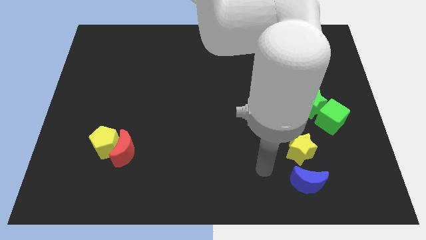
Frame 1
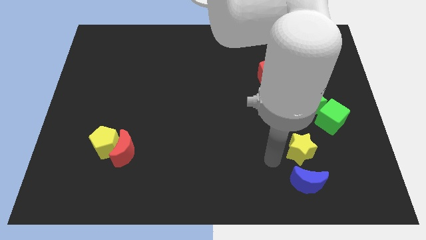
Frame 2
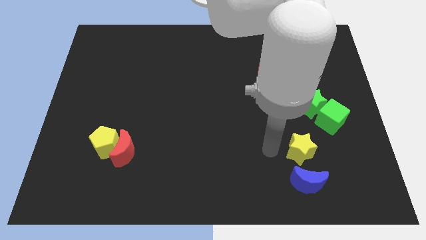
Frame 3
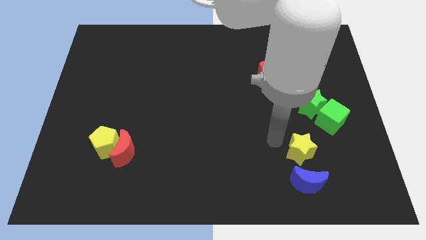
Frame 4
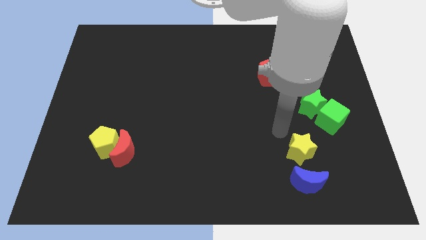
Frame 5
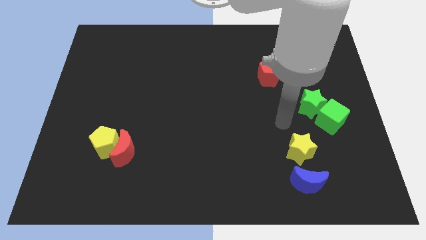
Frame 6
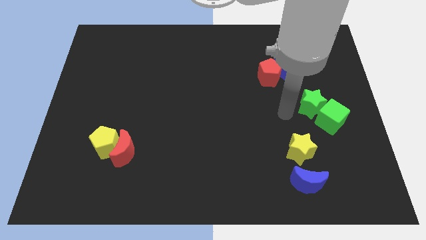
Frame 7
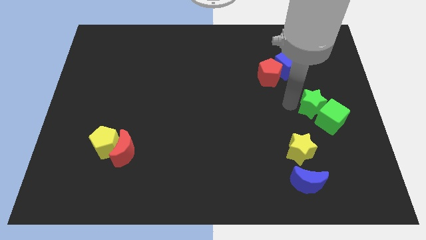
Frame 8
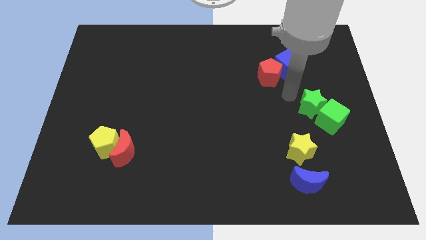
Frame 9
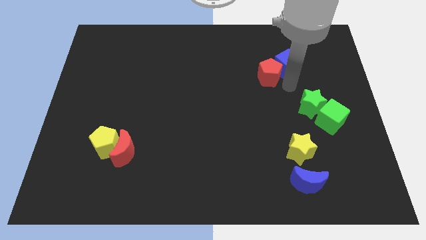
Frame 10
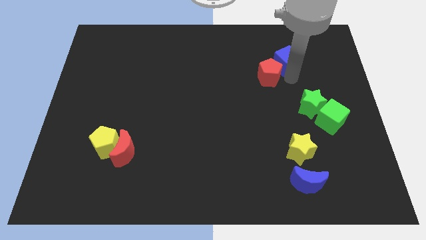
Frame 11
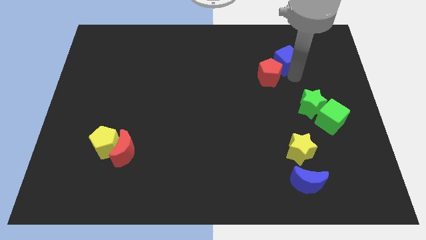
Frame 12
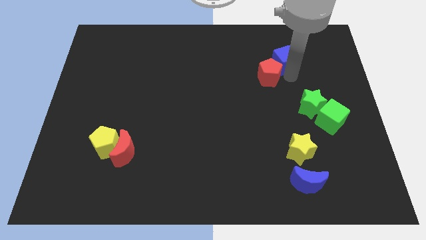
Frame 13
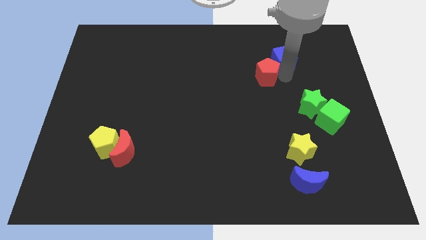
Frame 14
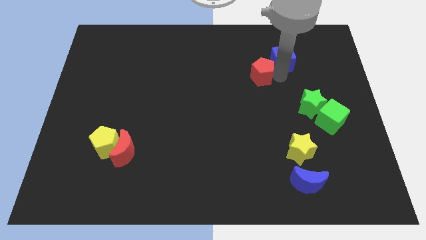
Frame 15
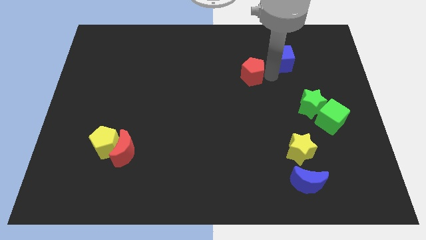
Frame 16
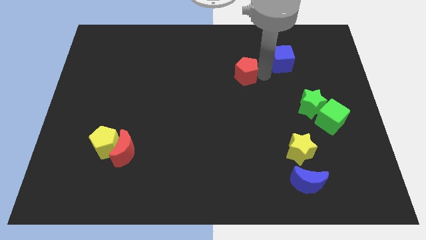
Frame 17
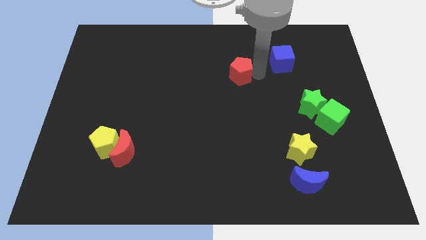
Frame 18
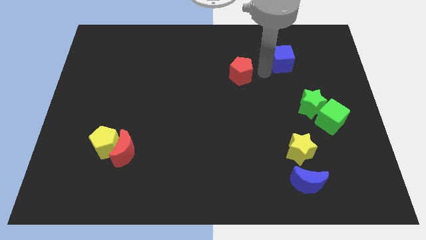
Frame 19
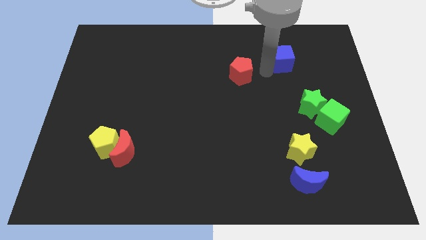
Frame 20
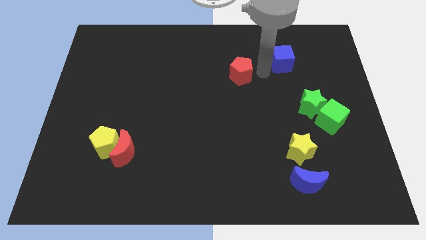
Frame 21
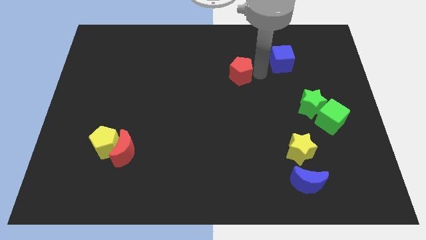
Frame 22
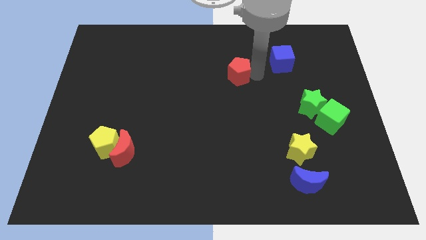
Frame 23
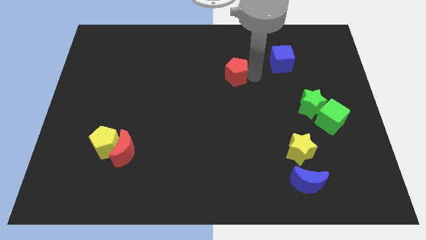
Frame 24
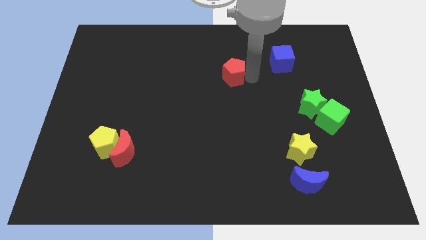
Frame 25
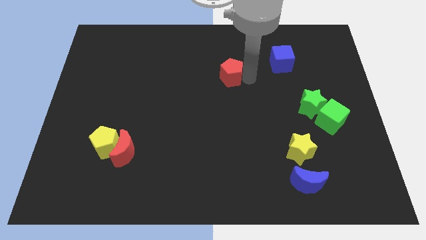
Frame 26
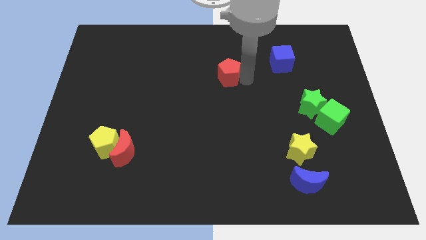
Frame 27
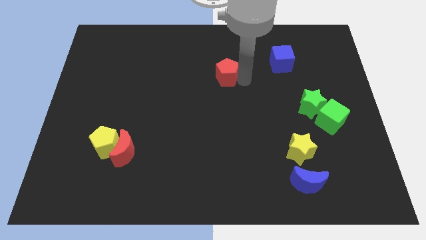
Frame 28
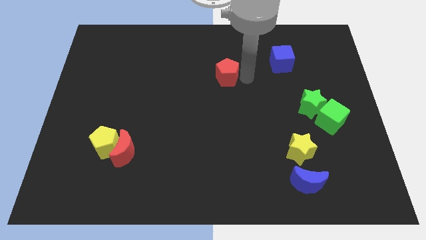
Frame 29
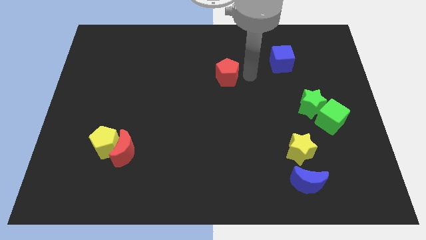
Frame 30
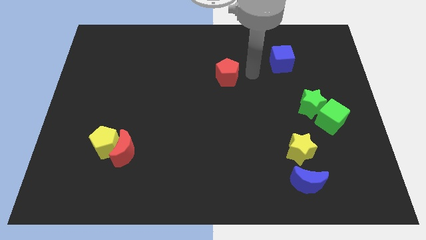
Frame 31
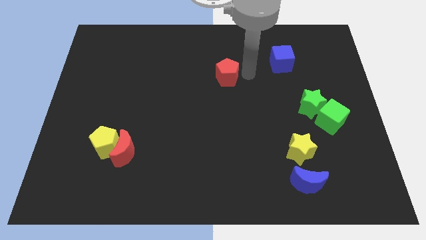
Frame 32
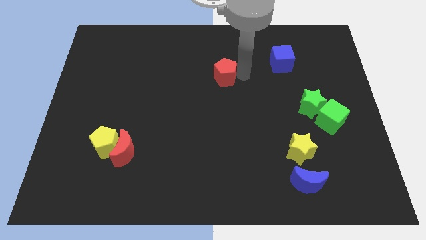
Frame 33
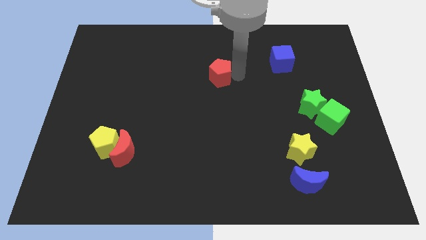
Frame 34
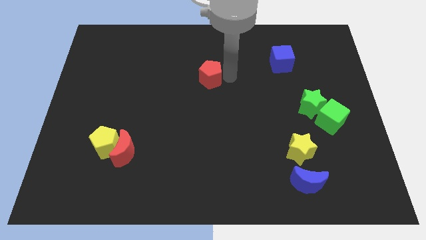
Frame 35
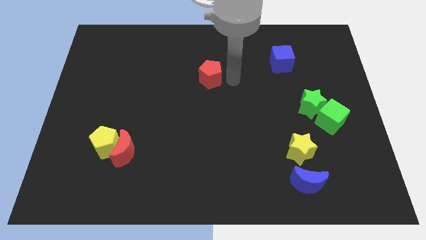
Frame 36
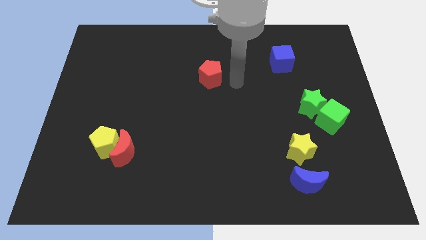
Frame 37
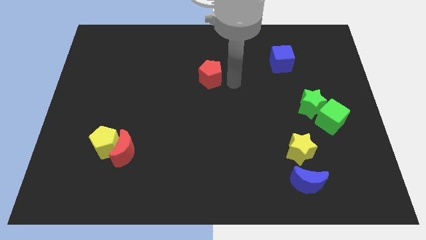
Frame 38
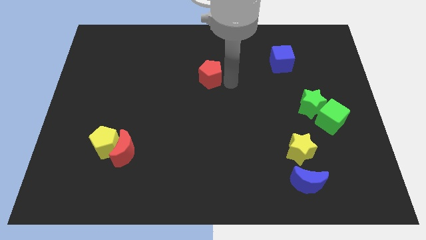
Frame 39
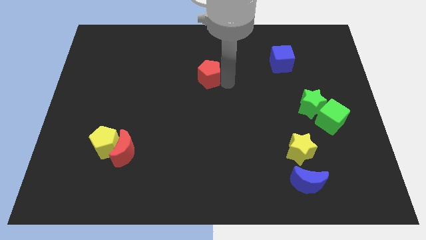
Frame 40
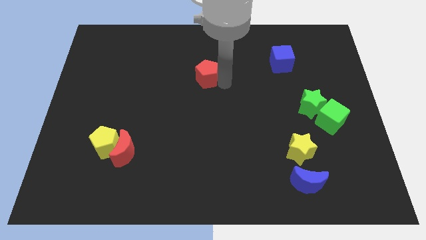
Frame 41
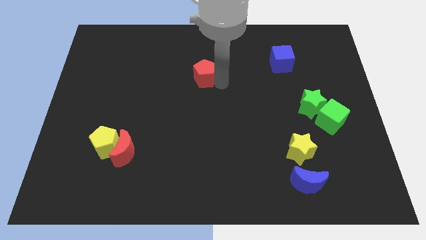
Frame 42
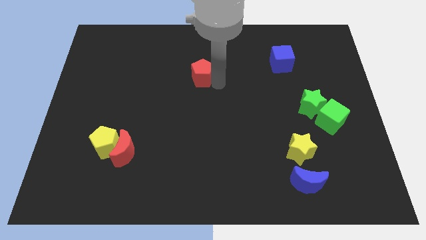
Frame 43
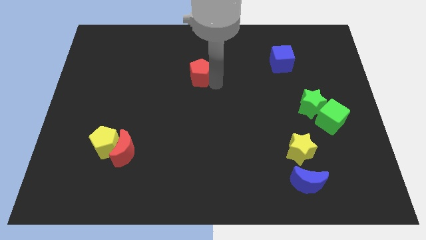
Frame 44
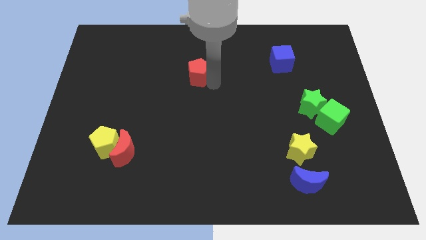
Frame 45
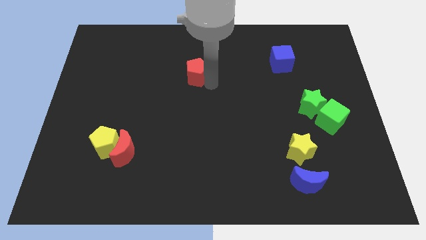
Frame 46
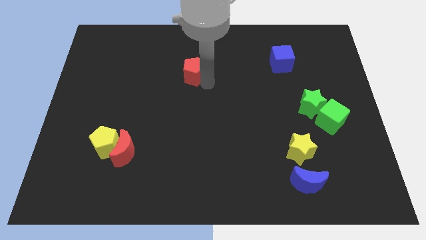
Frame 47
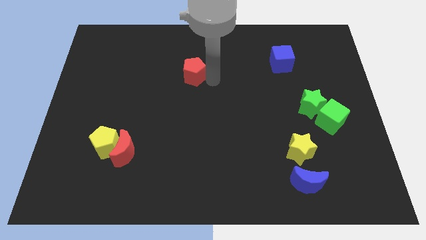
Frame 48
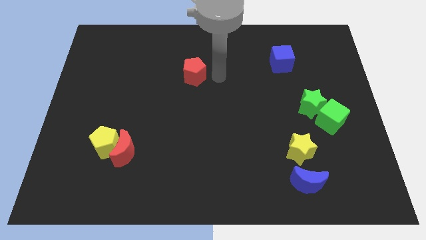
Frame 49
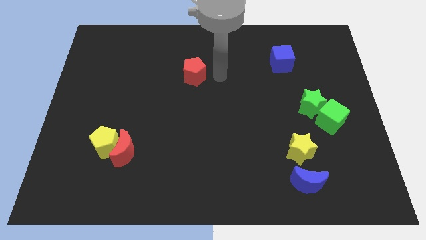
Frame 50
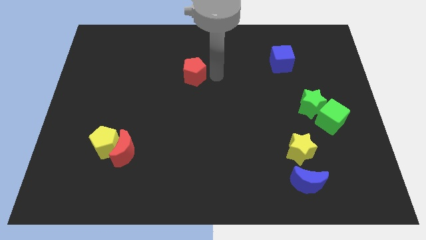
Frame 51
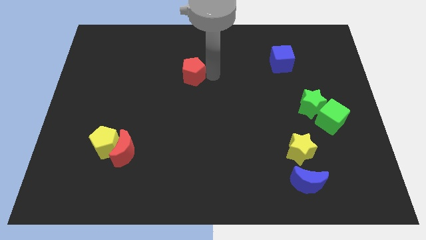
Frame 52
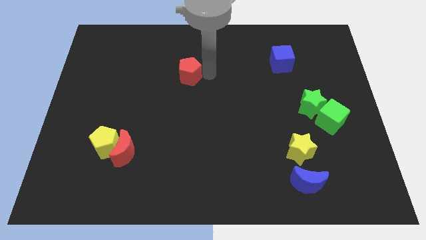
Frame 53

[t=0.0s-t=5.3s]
move the red pentagon to the left

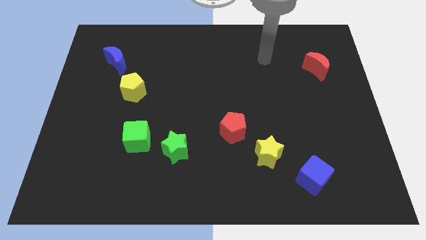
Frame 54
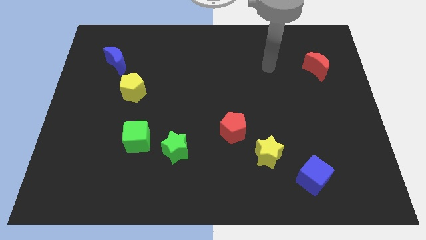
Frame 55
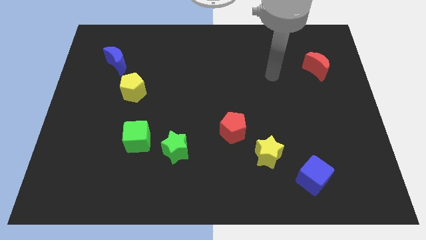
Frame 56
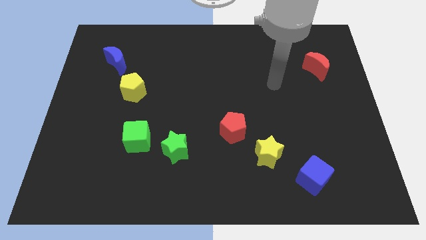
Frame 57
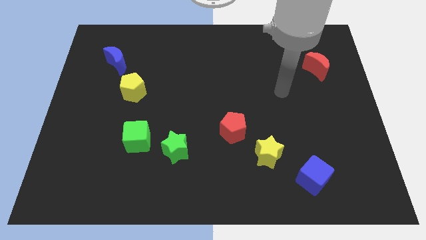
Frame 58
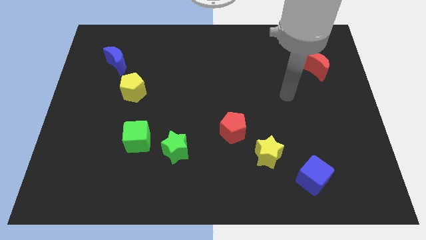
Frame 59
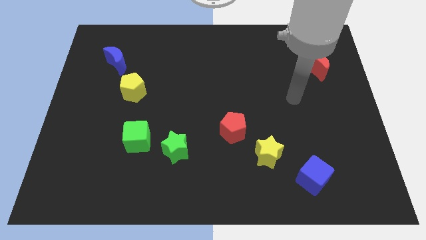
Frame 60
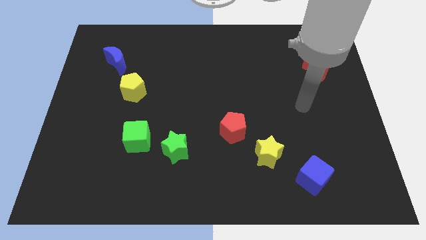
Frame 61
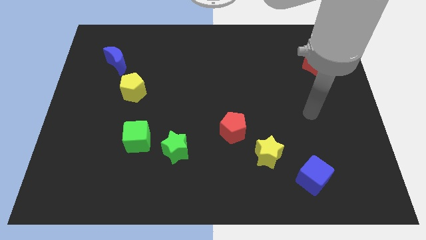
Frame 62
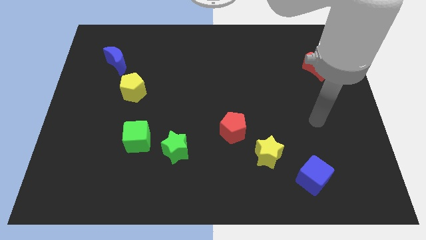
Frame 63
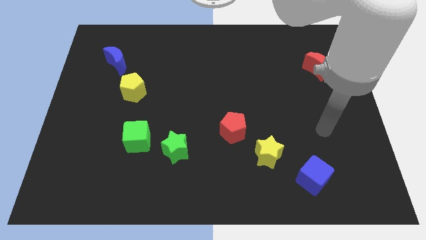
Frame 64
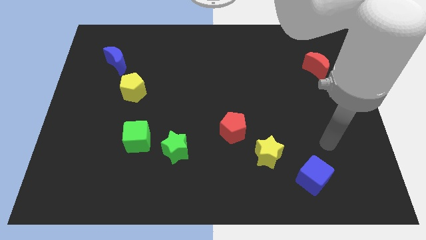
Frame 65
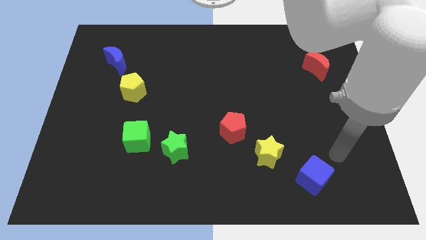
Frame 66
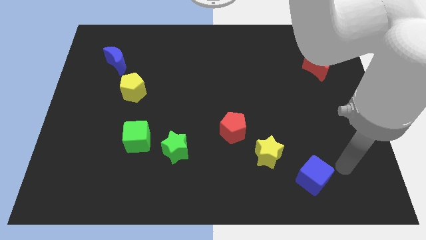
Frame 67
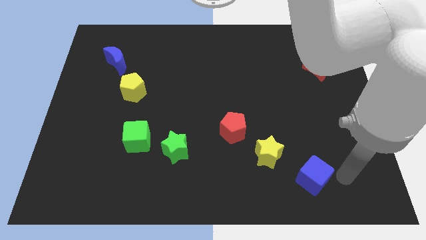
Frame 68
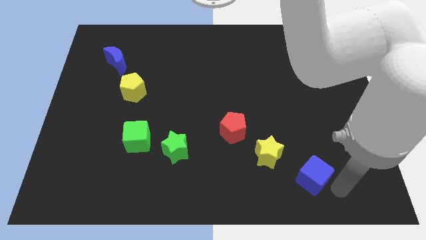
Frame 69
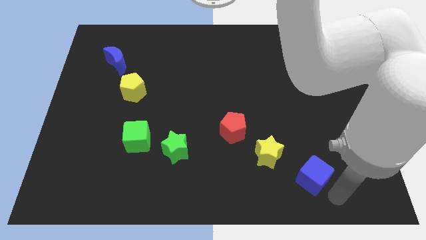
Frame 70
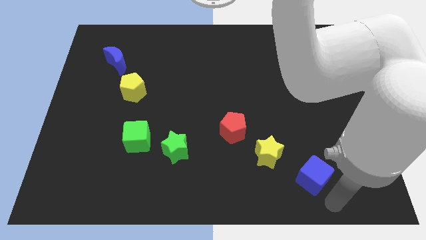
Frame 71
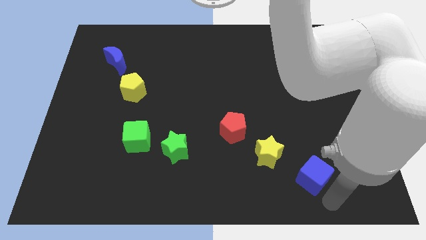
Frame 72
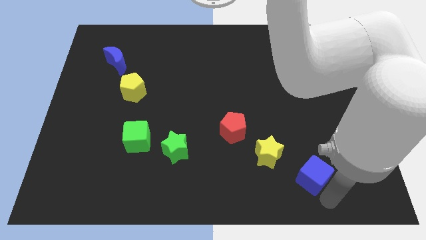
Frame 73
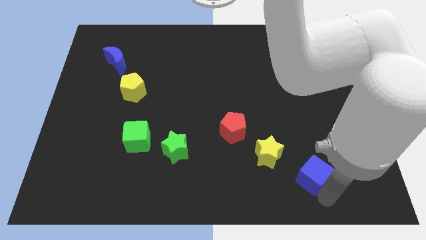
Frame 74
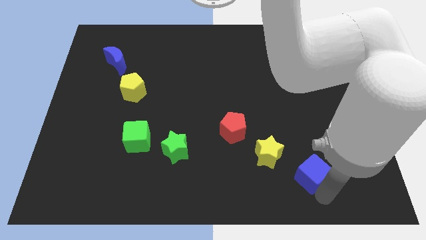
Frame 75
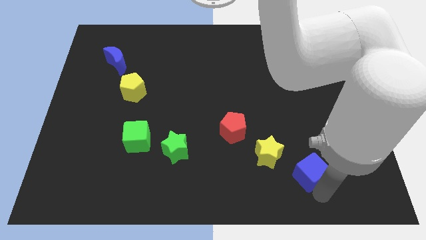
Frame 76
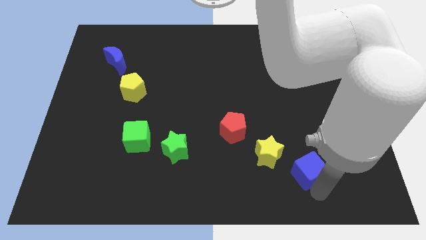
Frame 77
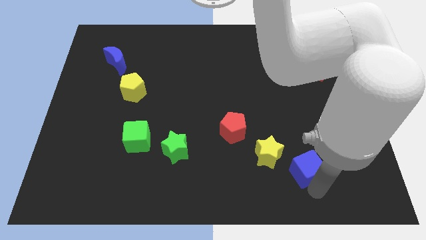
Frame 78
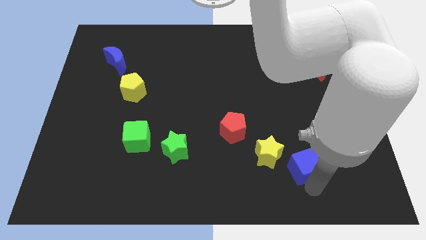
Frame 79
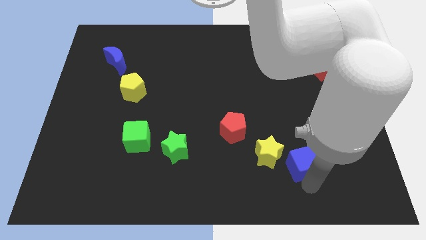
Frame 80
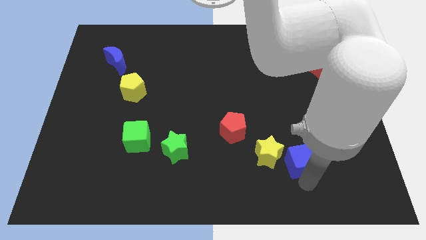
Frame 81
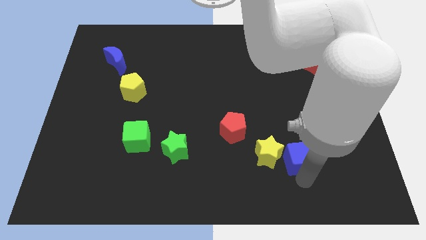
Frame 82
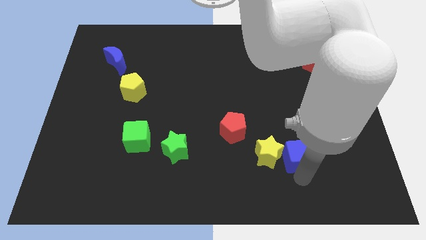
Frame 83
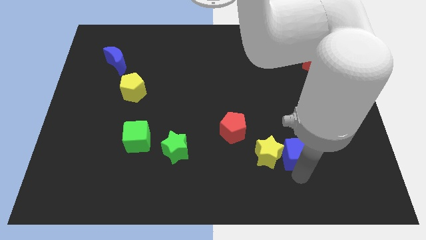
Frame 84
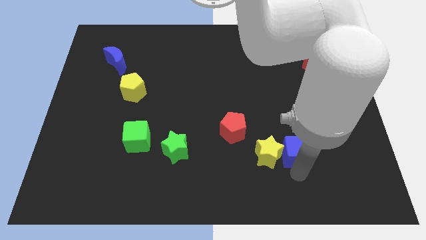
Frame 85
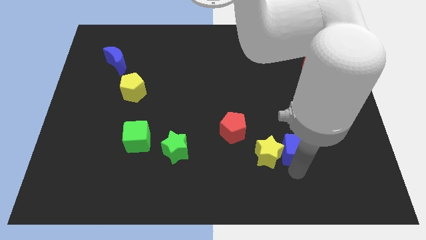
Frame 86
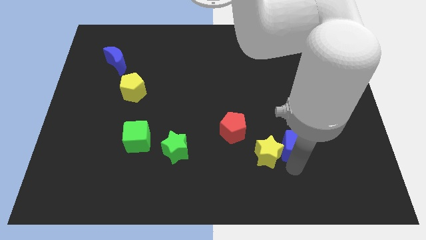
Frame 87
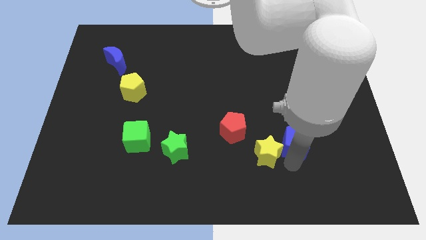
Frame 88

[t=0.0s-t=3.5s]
slide the blue cube upwards slightly
